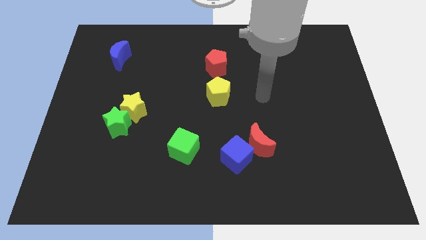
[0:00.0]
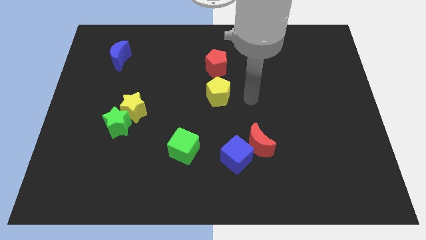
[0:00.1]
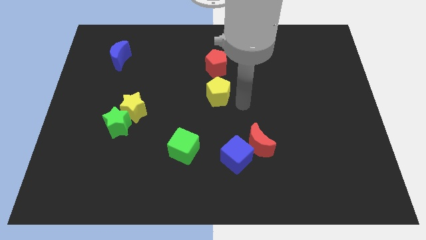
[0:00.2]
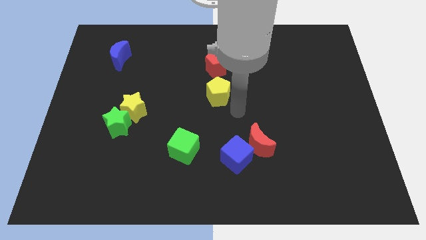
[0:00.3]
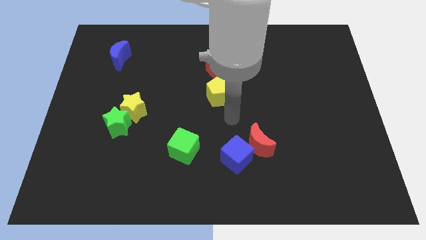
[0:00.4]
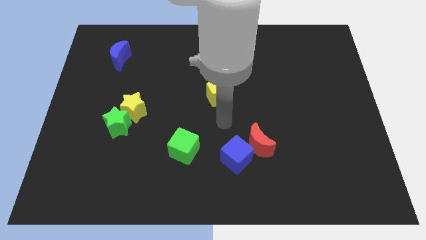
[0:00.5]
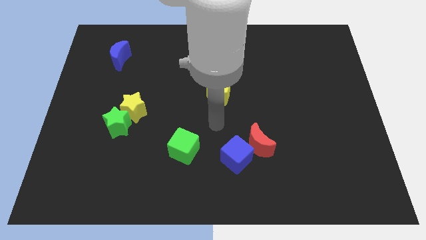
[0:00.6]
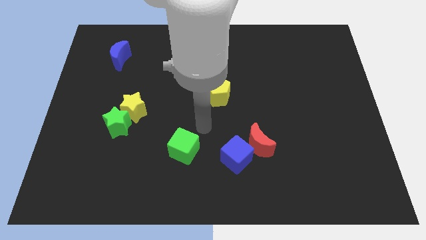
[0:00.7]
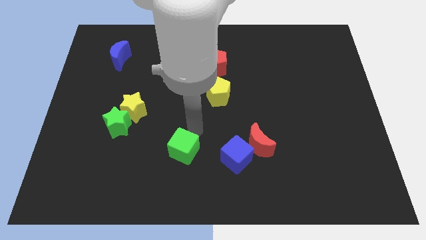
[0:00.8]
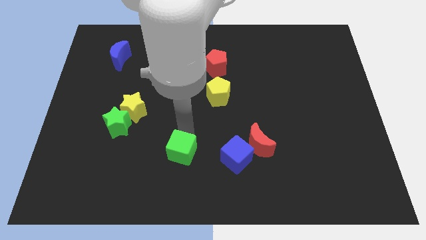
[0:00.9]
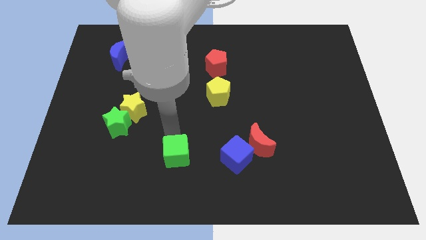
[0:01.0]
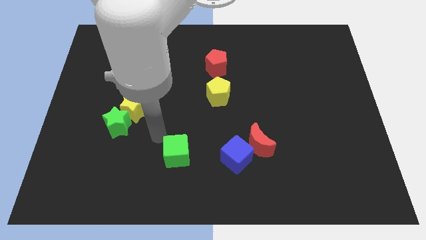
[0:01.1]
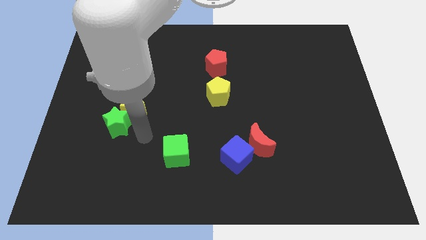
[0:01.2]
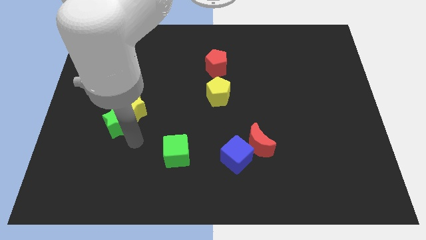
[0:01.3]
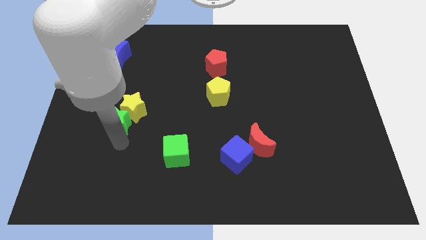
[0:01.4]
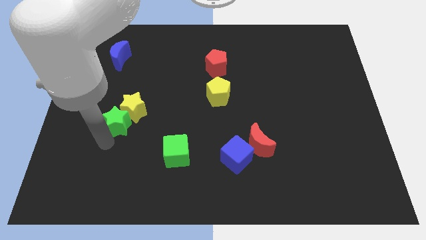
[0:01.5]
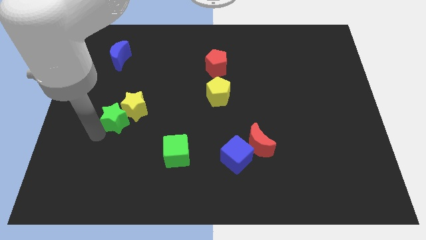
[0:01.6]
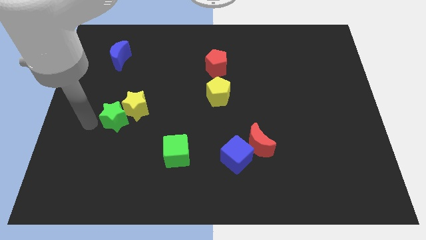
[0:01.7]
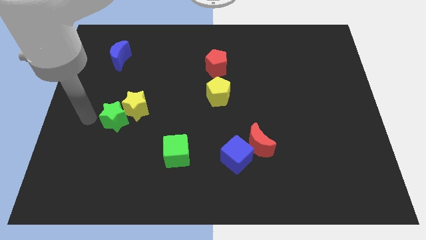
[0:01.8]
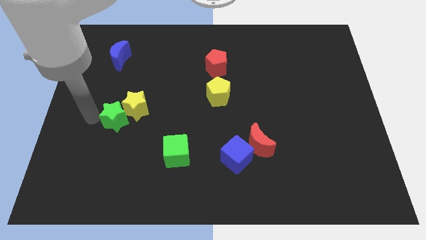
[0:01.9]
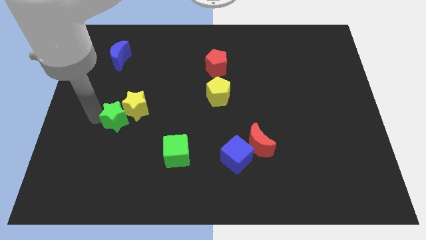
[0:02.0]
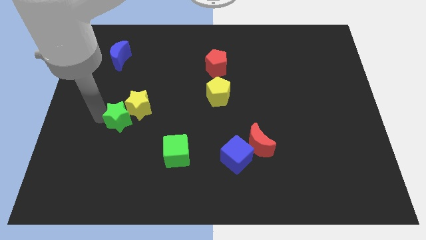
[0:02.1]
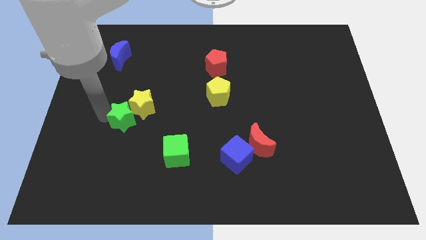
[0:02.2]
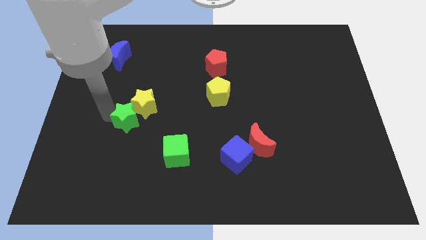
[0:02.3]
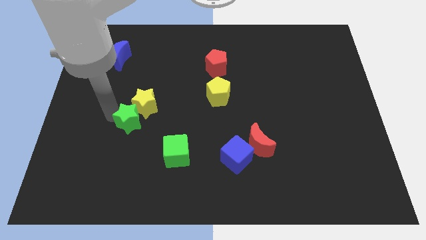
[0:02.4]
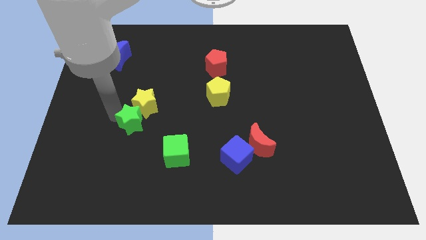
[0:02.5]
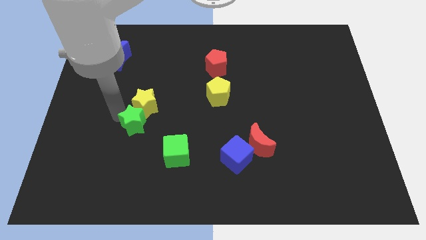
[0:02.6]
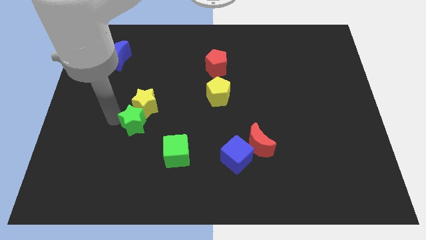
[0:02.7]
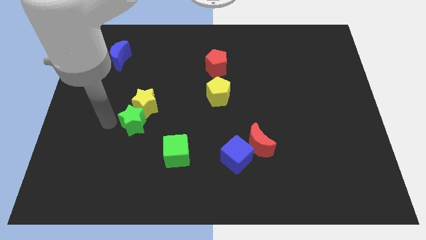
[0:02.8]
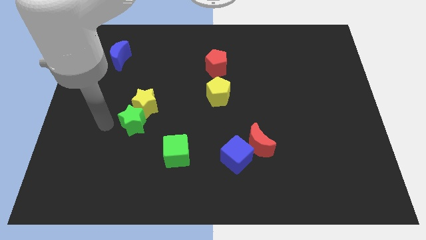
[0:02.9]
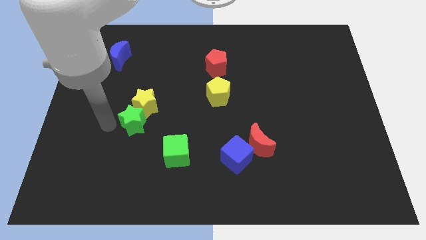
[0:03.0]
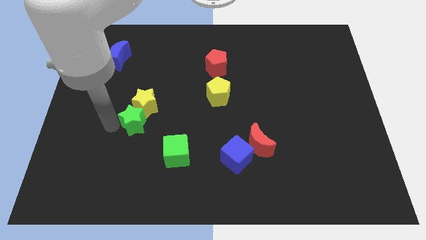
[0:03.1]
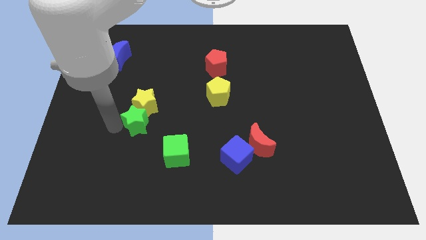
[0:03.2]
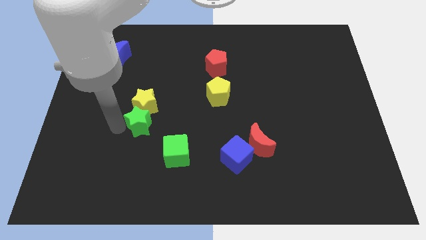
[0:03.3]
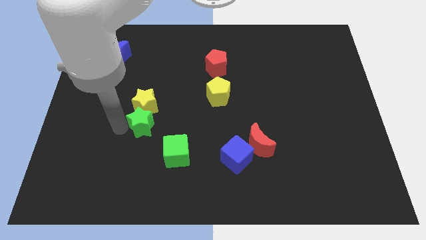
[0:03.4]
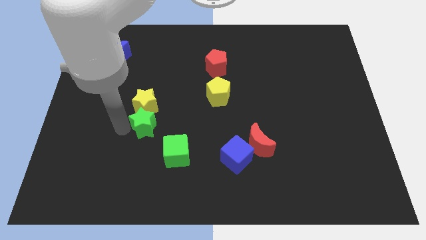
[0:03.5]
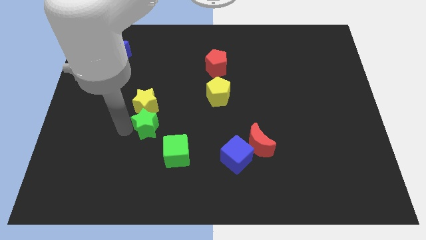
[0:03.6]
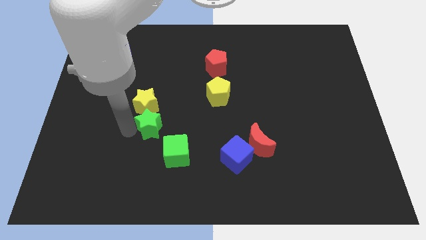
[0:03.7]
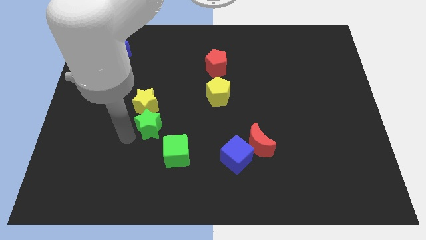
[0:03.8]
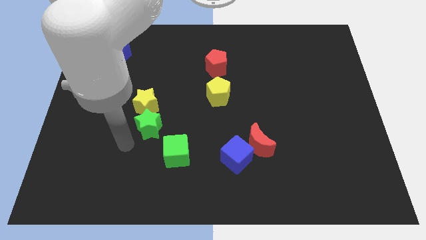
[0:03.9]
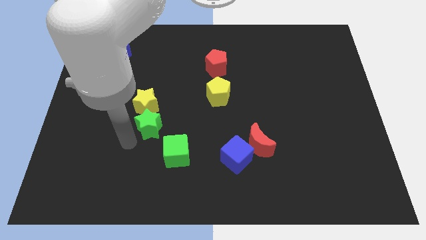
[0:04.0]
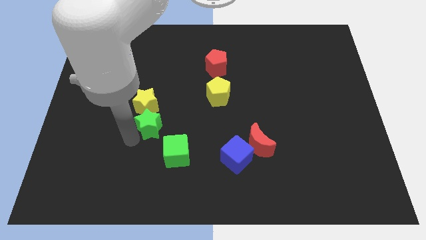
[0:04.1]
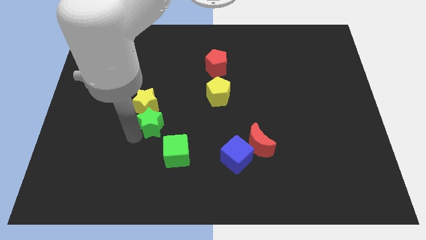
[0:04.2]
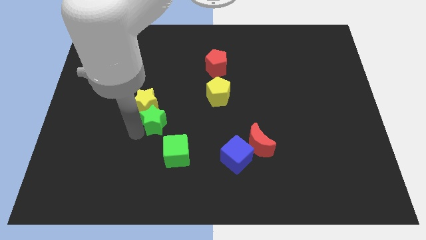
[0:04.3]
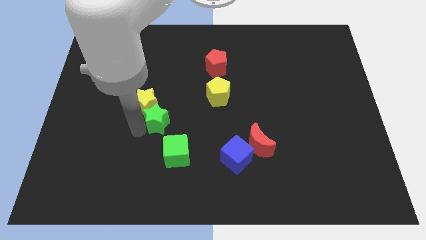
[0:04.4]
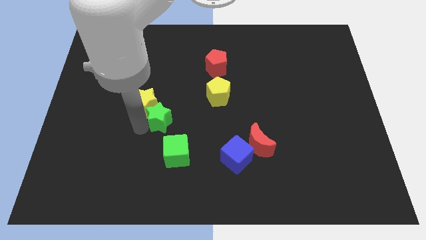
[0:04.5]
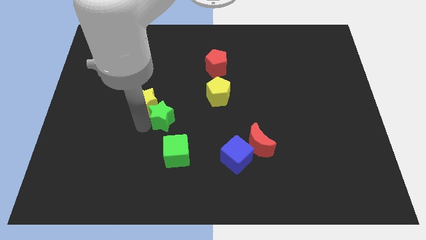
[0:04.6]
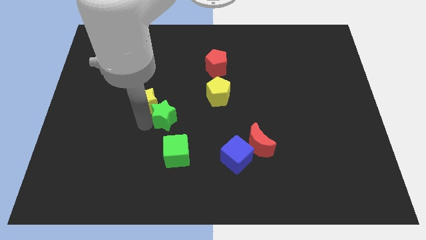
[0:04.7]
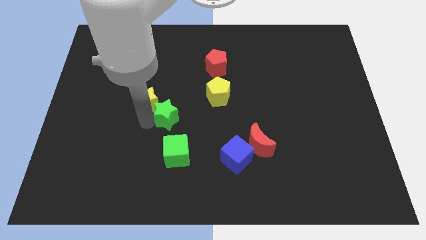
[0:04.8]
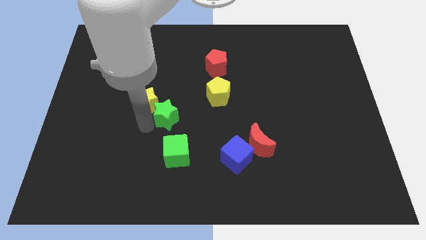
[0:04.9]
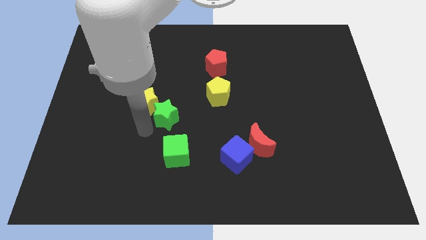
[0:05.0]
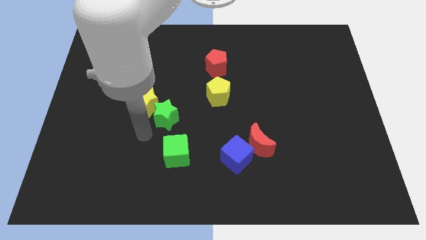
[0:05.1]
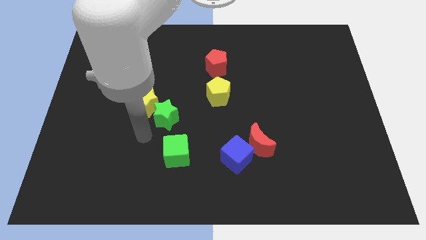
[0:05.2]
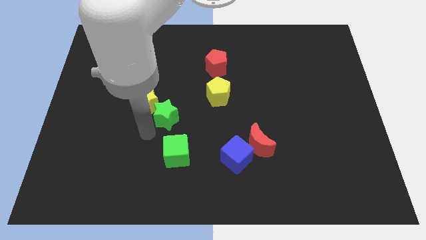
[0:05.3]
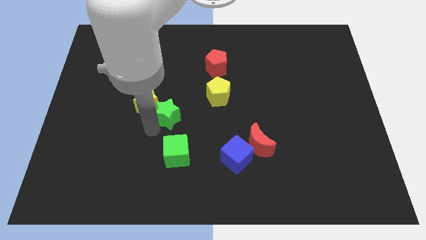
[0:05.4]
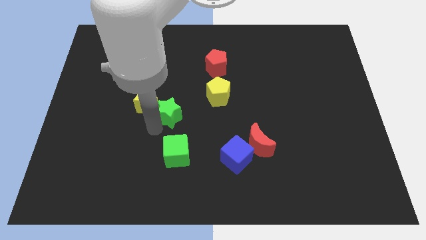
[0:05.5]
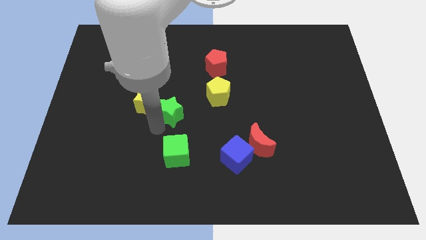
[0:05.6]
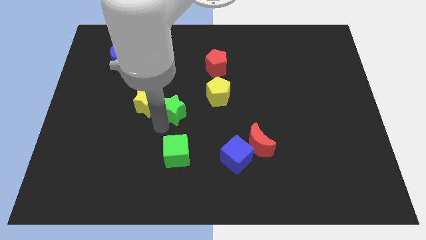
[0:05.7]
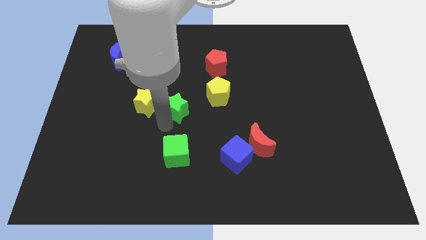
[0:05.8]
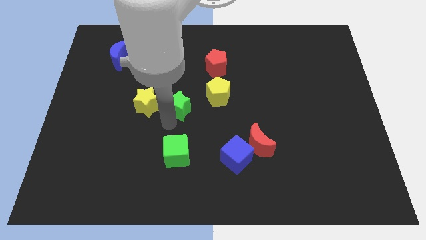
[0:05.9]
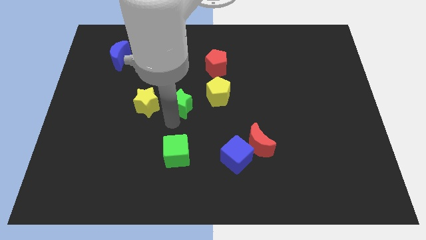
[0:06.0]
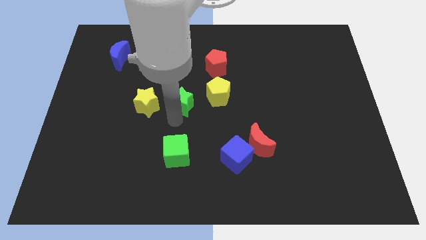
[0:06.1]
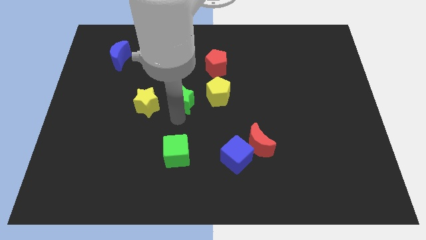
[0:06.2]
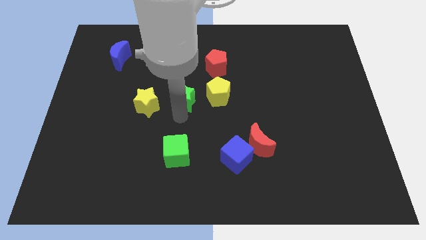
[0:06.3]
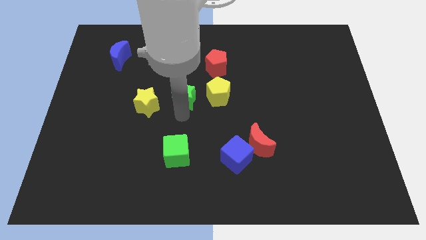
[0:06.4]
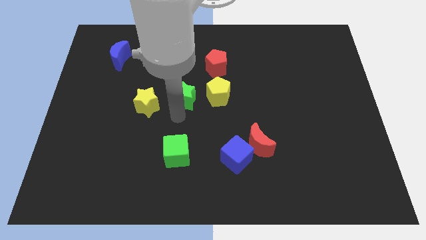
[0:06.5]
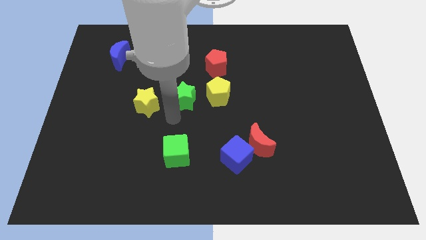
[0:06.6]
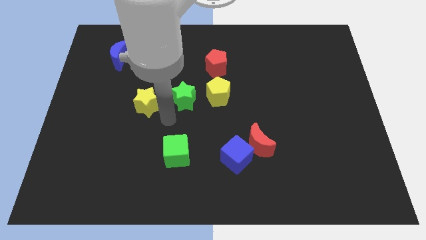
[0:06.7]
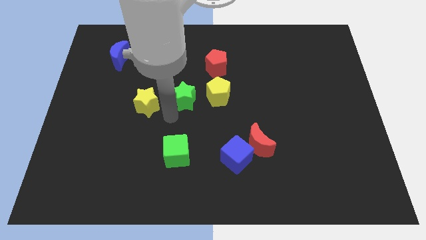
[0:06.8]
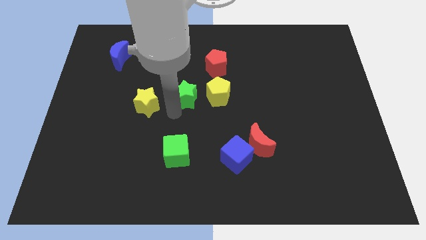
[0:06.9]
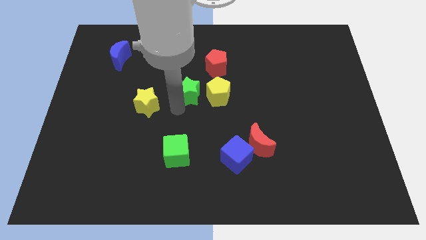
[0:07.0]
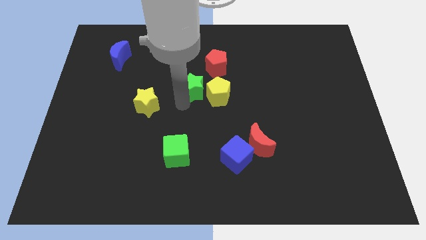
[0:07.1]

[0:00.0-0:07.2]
push the green star to the top left side of the yellow pentagon

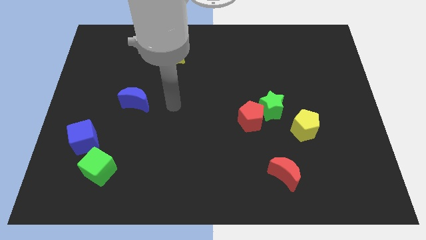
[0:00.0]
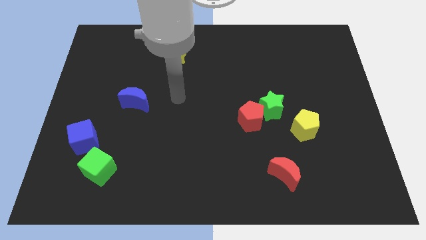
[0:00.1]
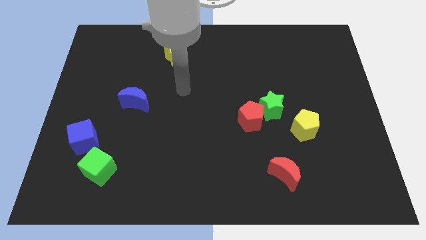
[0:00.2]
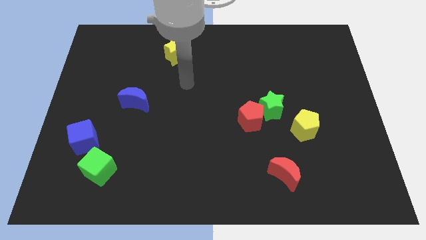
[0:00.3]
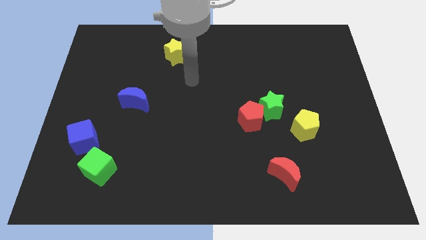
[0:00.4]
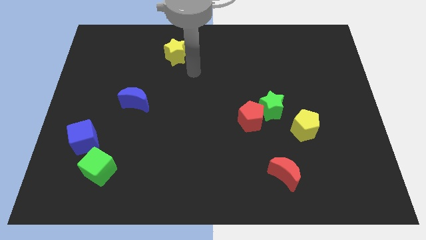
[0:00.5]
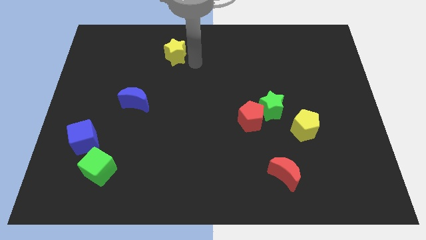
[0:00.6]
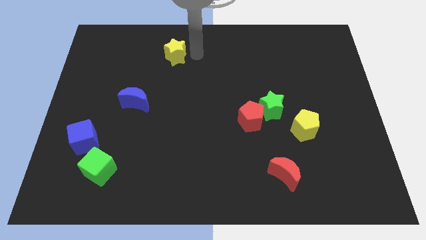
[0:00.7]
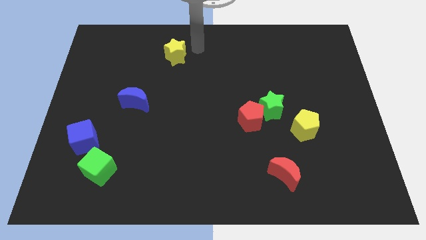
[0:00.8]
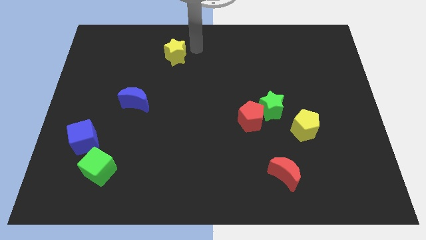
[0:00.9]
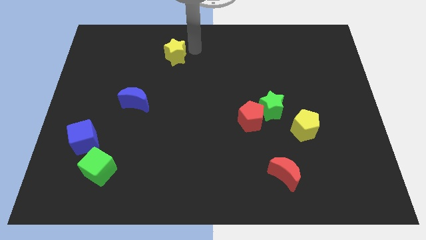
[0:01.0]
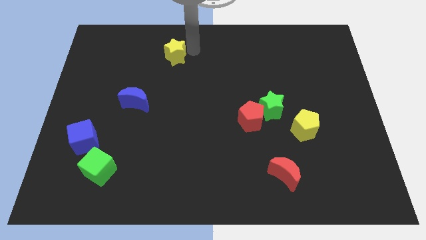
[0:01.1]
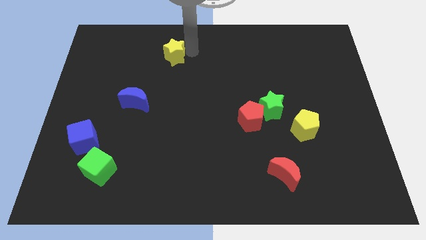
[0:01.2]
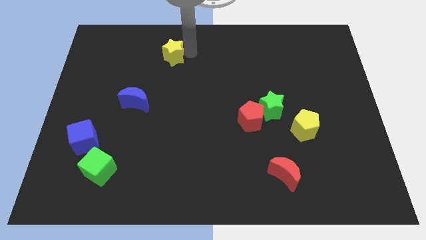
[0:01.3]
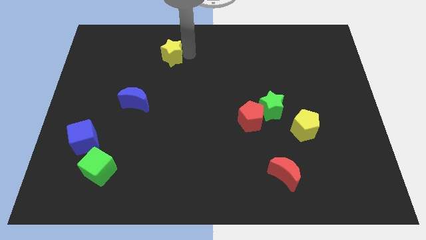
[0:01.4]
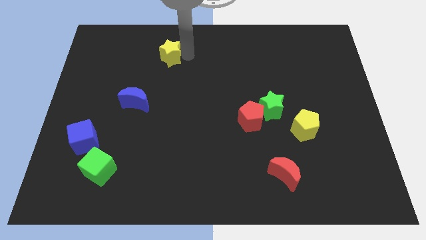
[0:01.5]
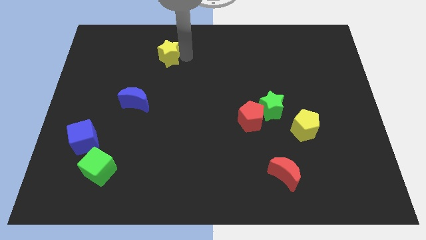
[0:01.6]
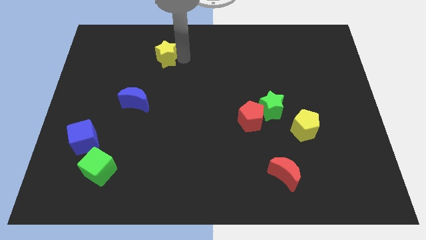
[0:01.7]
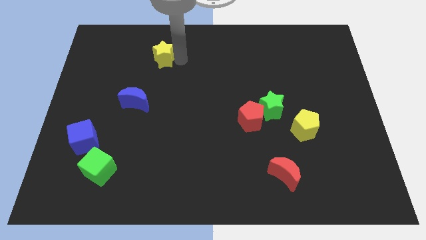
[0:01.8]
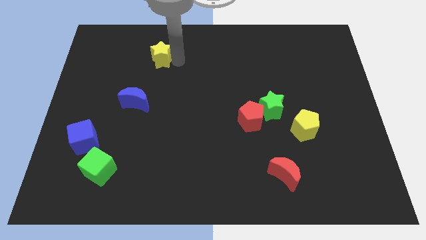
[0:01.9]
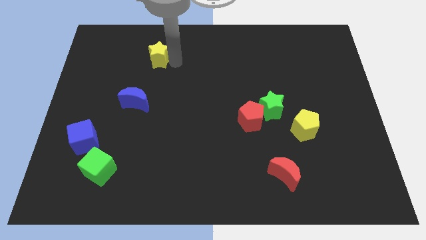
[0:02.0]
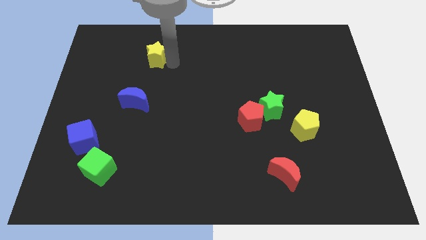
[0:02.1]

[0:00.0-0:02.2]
push the yellow star to the top side of the blue moon
